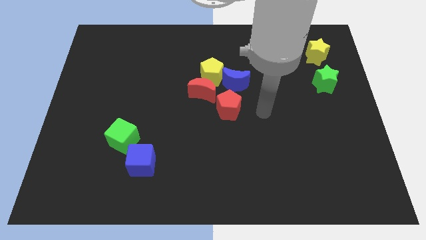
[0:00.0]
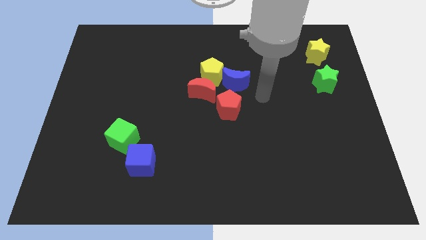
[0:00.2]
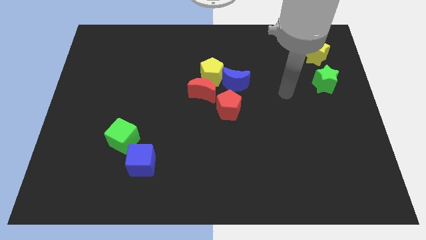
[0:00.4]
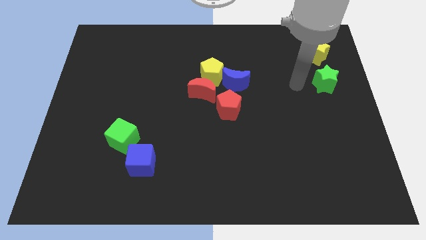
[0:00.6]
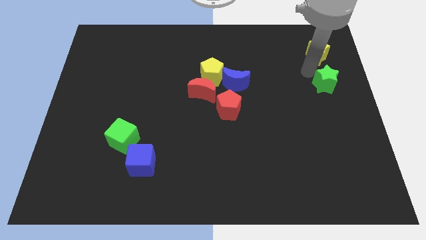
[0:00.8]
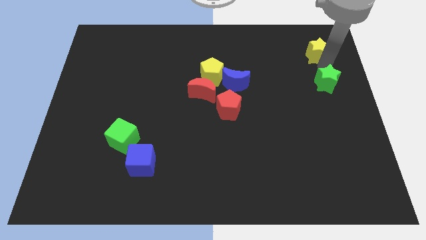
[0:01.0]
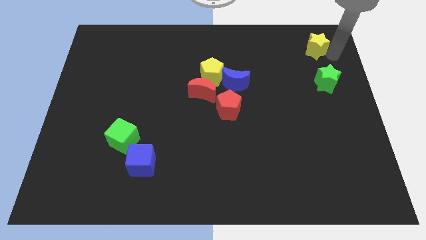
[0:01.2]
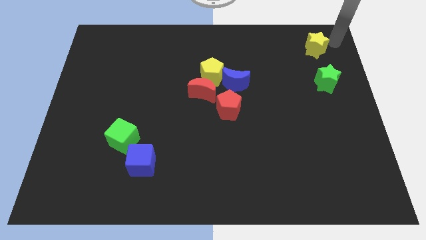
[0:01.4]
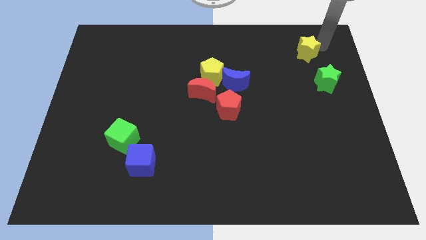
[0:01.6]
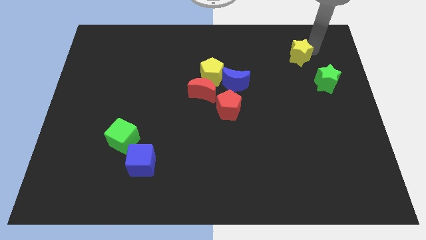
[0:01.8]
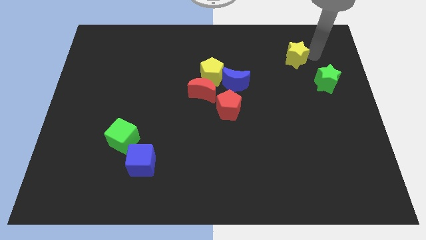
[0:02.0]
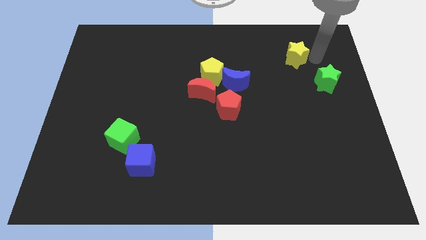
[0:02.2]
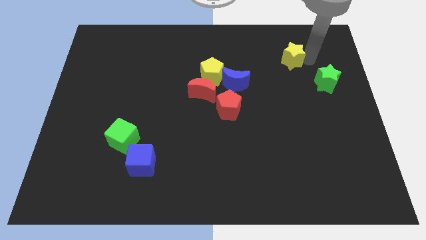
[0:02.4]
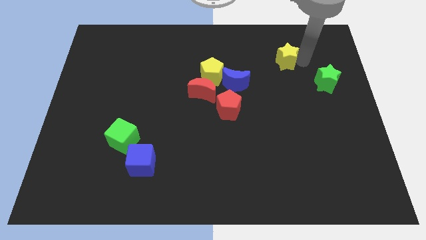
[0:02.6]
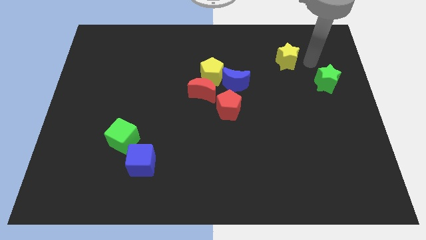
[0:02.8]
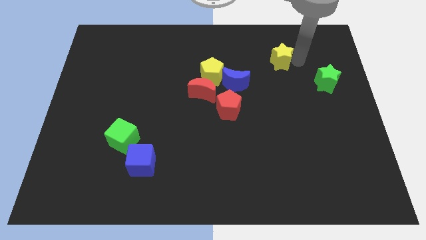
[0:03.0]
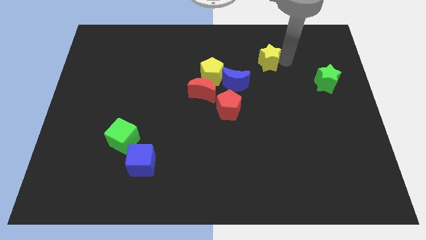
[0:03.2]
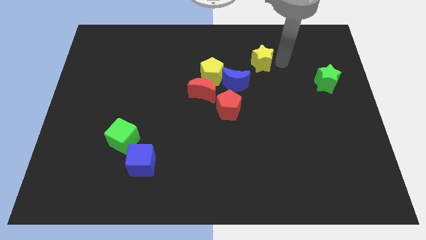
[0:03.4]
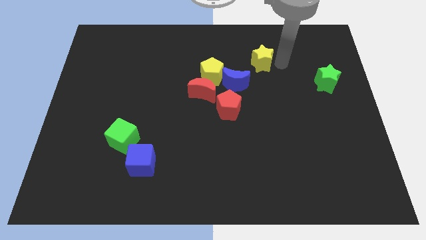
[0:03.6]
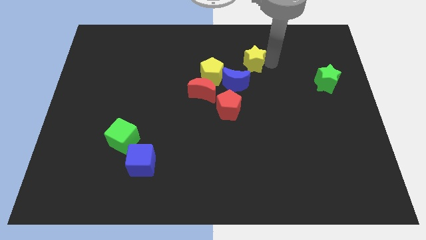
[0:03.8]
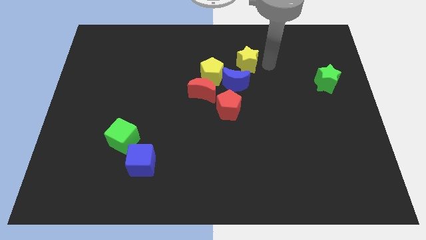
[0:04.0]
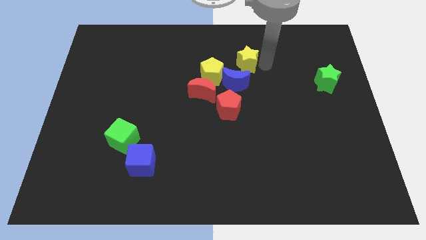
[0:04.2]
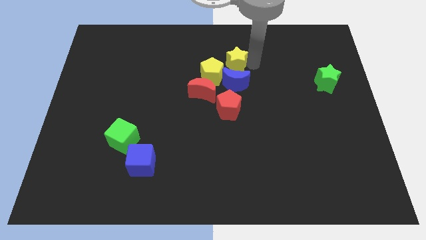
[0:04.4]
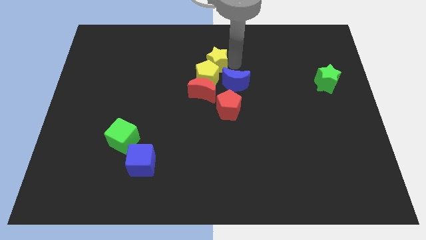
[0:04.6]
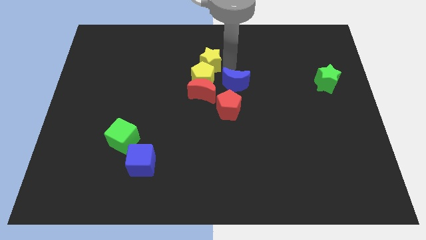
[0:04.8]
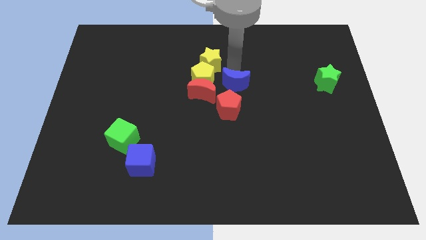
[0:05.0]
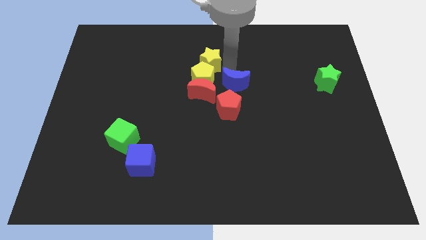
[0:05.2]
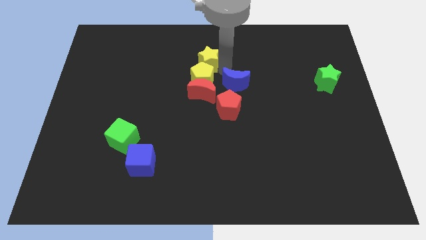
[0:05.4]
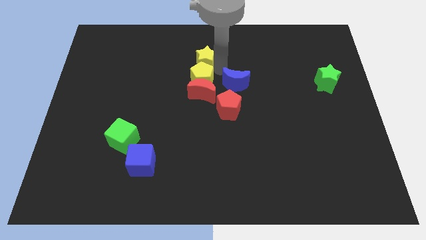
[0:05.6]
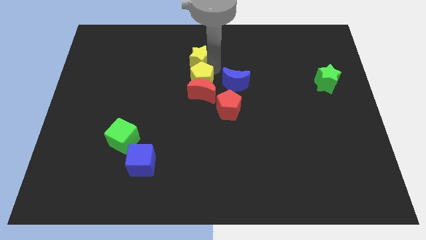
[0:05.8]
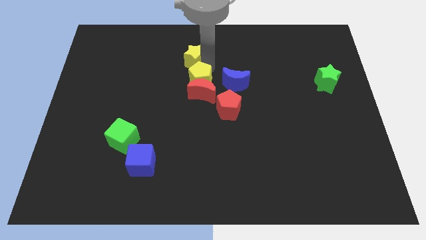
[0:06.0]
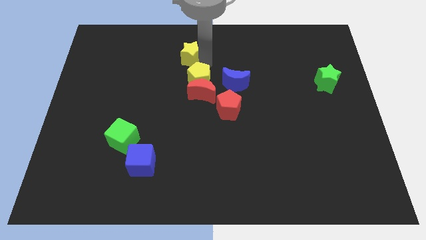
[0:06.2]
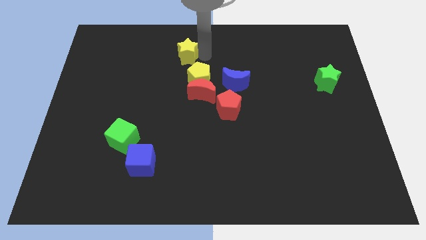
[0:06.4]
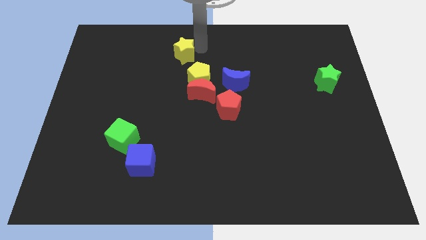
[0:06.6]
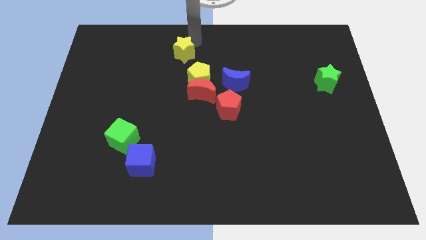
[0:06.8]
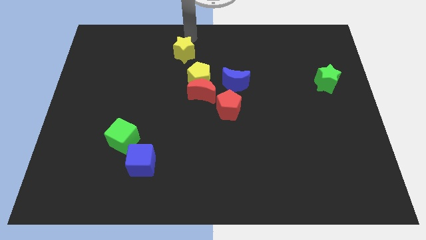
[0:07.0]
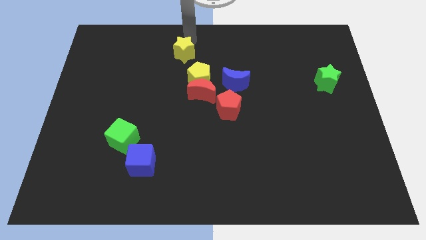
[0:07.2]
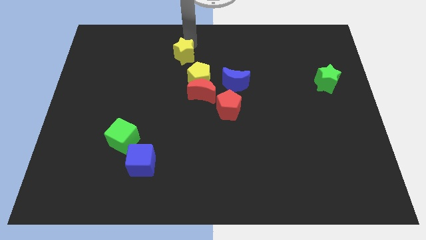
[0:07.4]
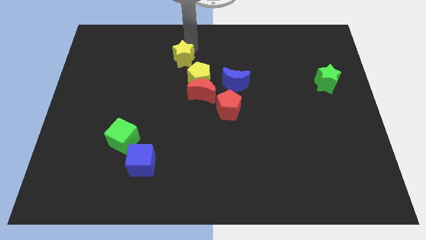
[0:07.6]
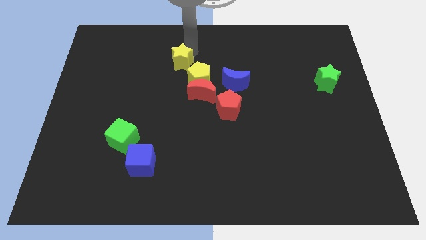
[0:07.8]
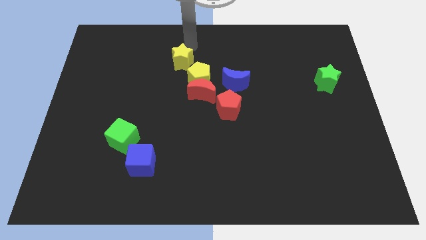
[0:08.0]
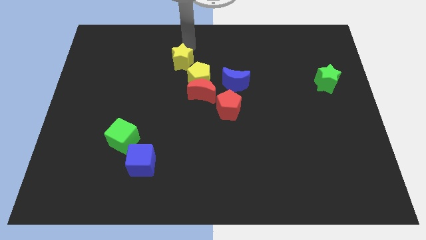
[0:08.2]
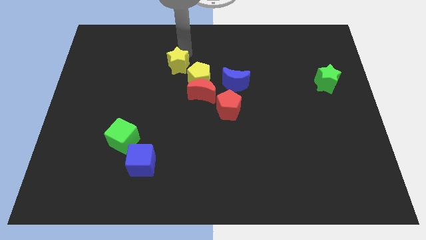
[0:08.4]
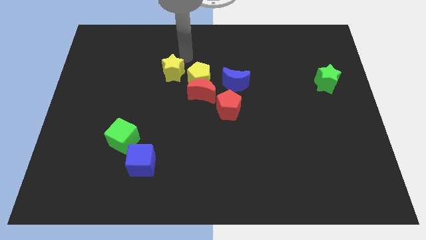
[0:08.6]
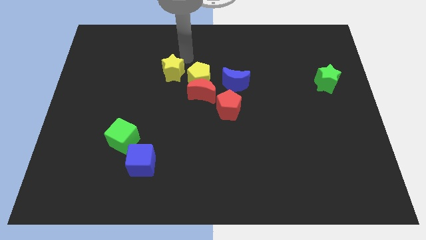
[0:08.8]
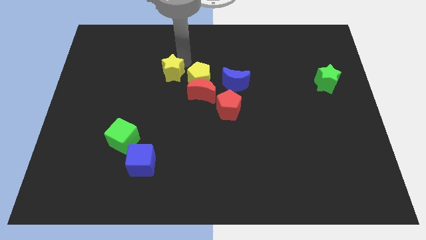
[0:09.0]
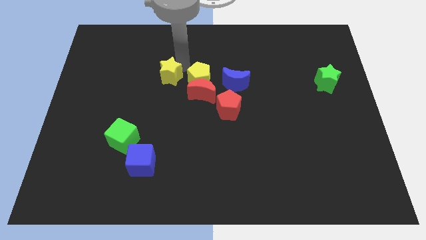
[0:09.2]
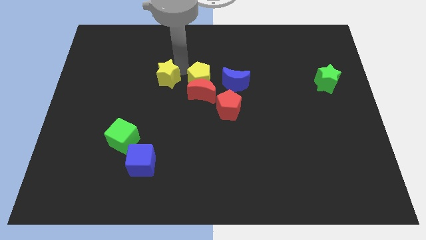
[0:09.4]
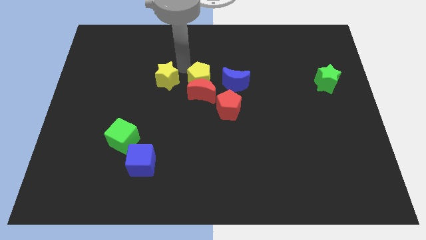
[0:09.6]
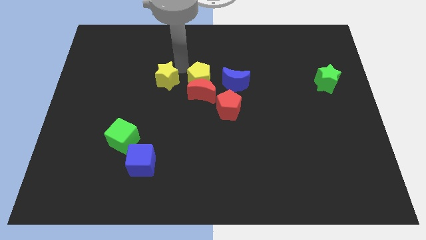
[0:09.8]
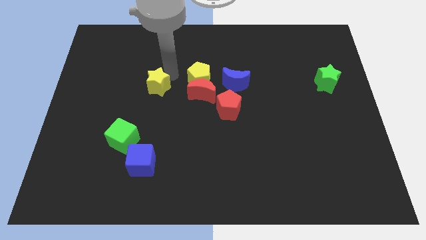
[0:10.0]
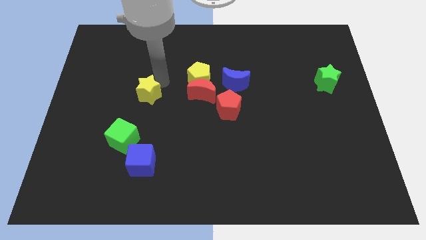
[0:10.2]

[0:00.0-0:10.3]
push the yellow star to the top side of the green cube

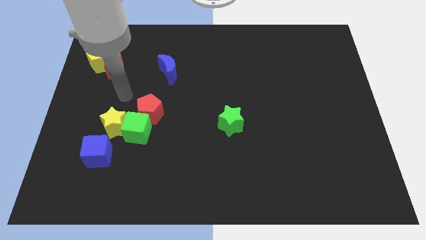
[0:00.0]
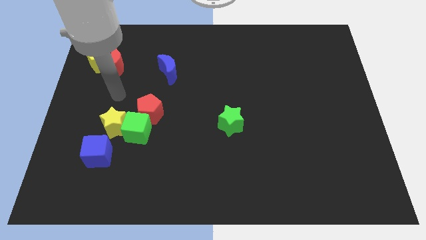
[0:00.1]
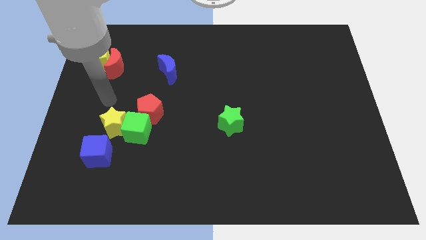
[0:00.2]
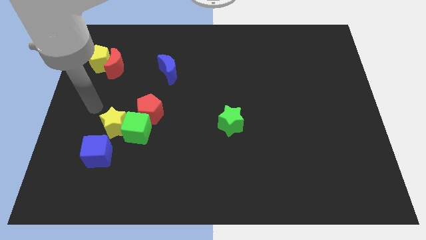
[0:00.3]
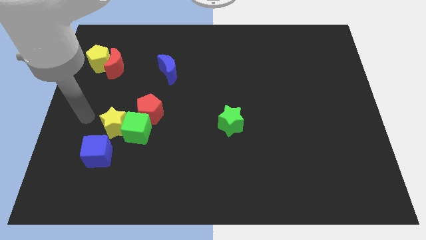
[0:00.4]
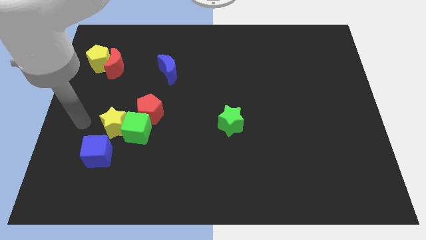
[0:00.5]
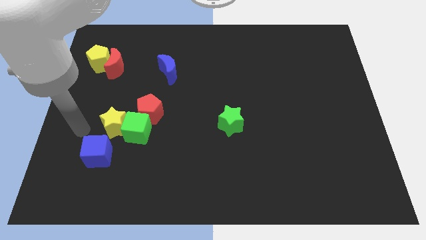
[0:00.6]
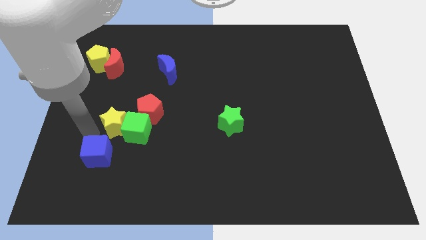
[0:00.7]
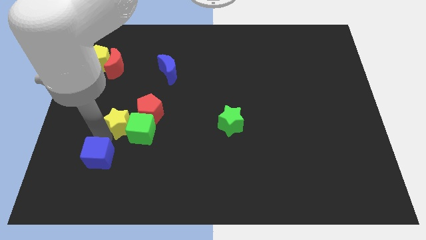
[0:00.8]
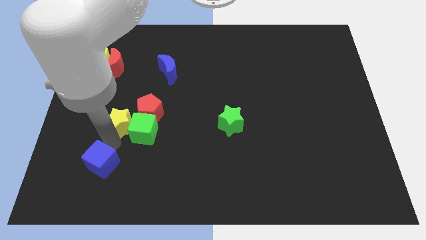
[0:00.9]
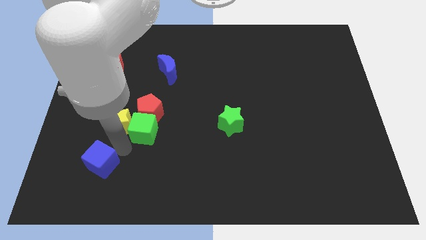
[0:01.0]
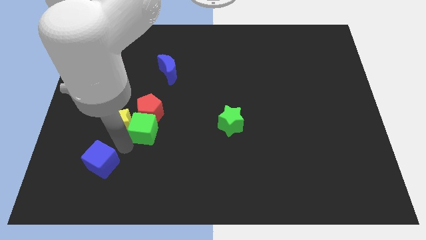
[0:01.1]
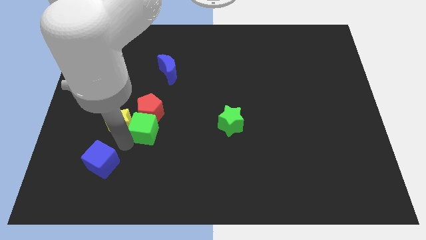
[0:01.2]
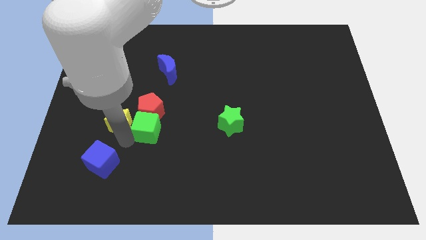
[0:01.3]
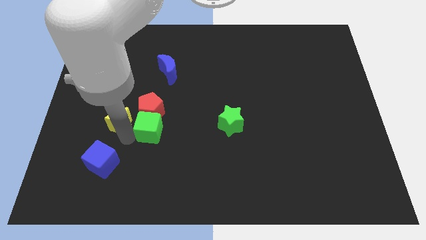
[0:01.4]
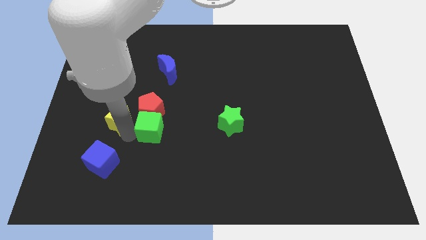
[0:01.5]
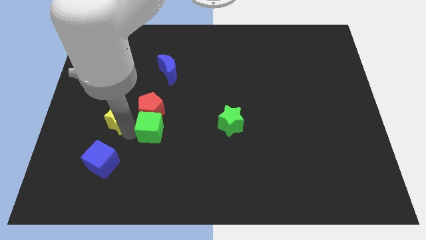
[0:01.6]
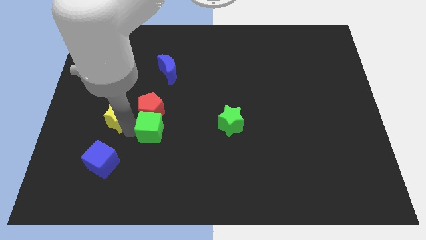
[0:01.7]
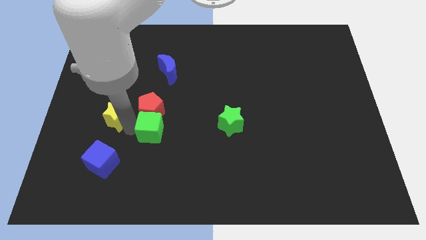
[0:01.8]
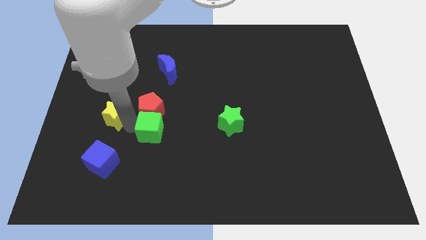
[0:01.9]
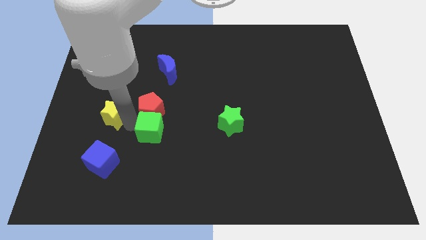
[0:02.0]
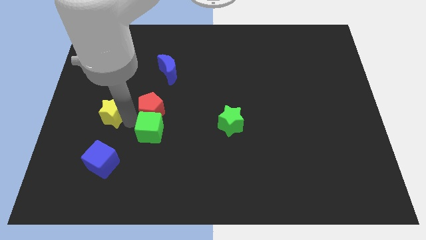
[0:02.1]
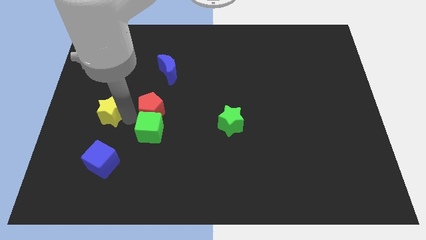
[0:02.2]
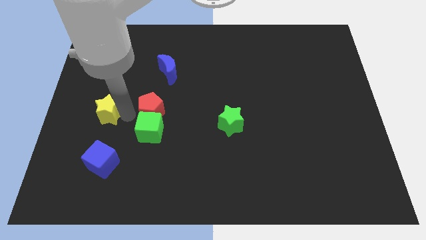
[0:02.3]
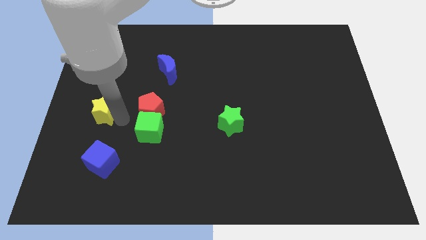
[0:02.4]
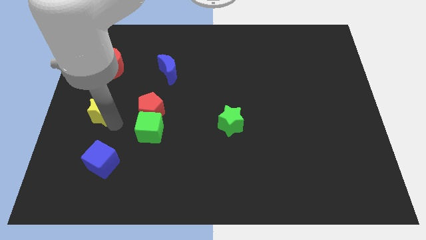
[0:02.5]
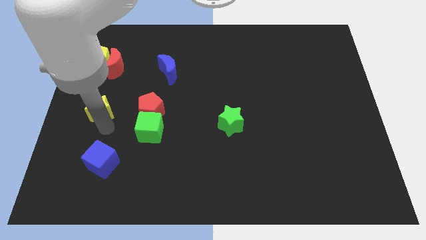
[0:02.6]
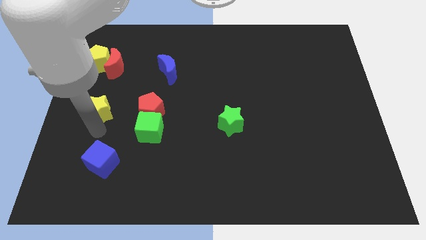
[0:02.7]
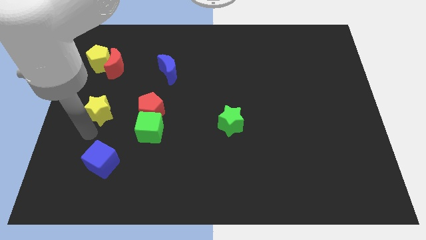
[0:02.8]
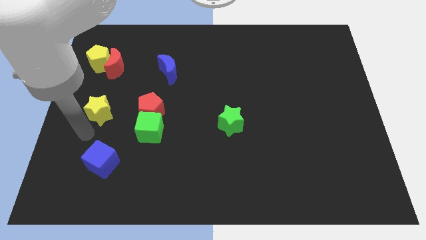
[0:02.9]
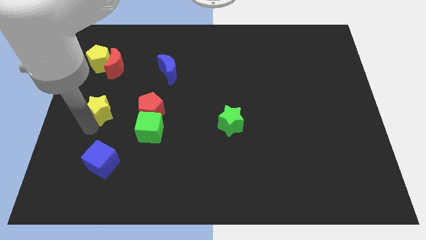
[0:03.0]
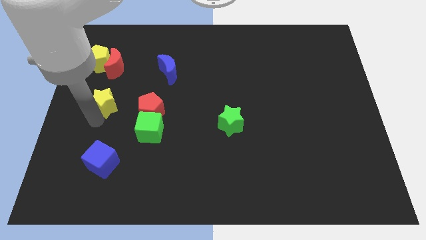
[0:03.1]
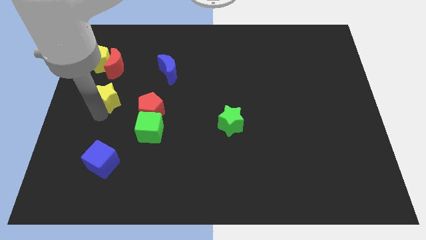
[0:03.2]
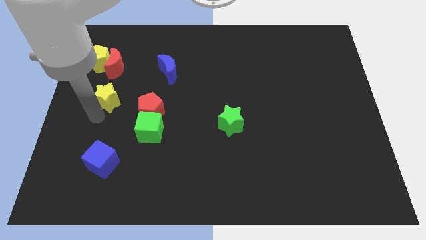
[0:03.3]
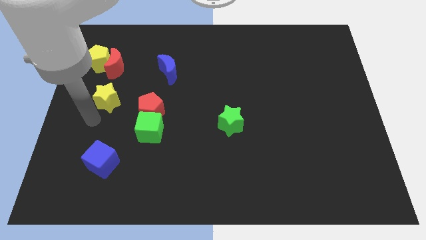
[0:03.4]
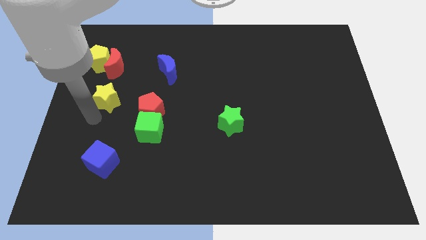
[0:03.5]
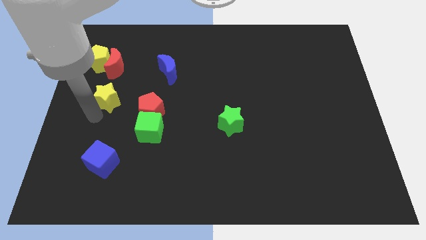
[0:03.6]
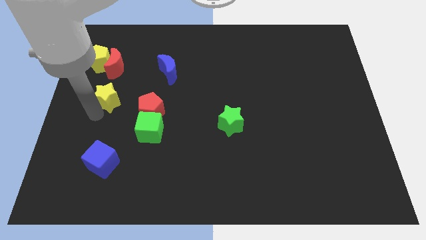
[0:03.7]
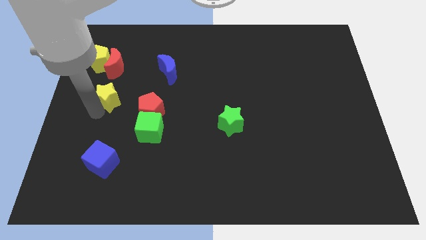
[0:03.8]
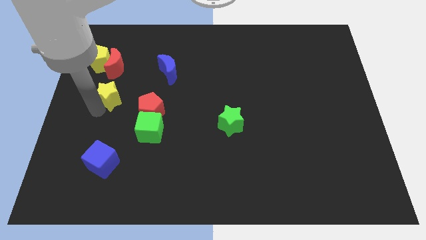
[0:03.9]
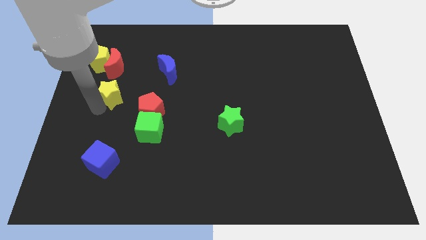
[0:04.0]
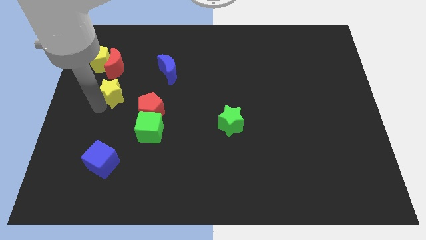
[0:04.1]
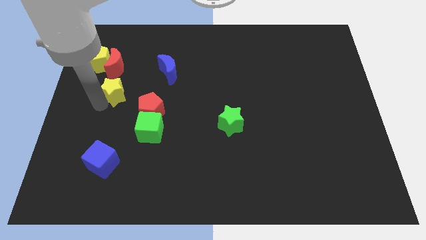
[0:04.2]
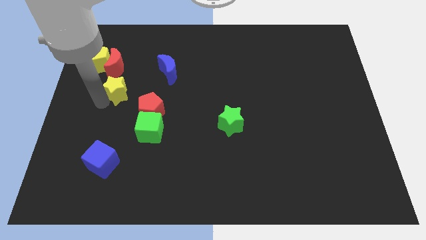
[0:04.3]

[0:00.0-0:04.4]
slide the yellow star diagonally down and to the right of the yellow pentagon
